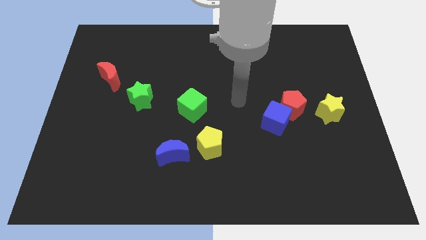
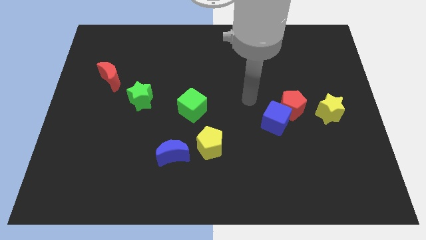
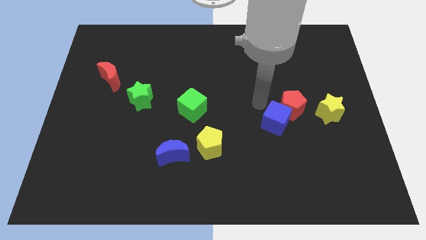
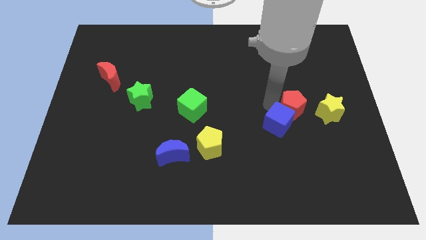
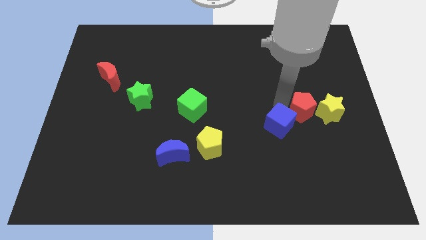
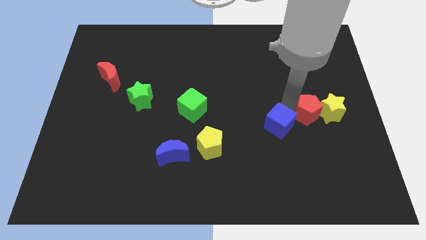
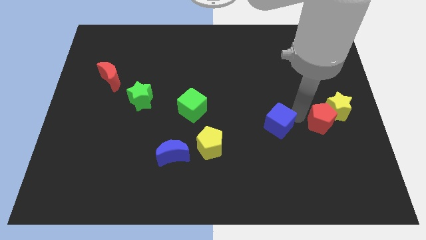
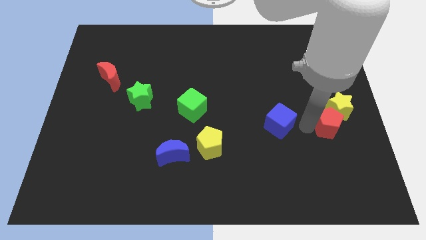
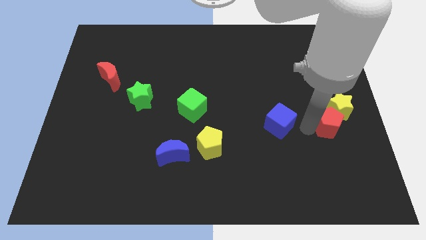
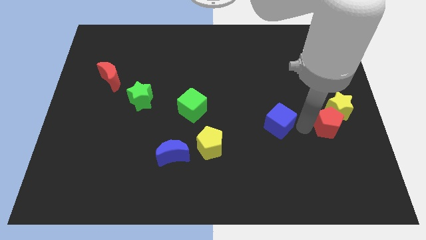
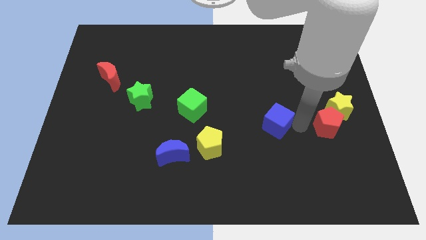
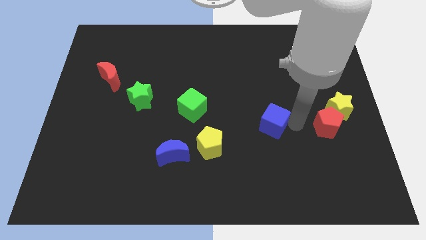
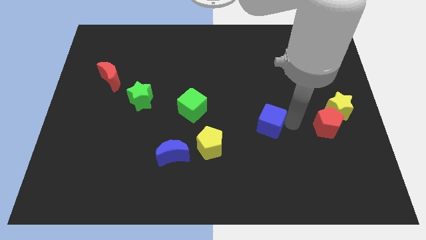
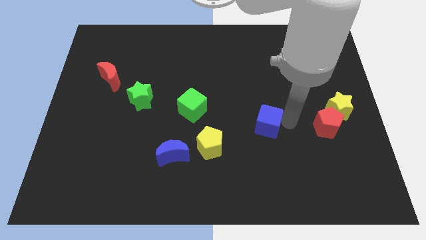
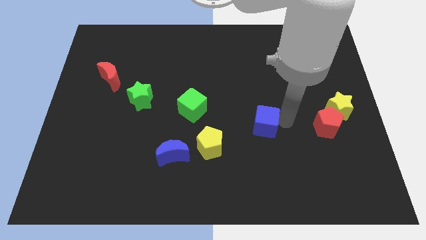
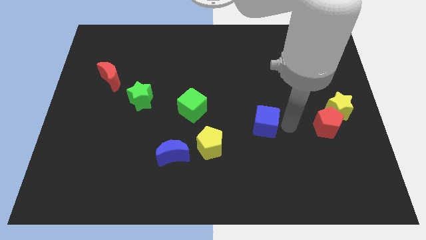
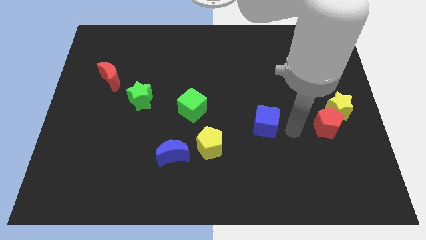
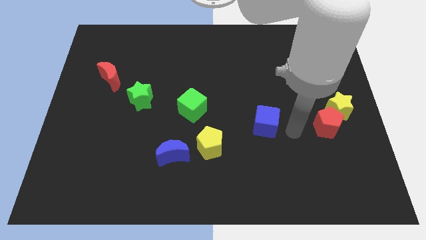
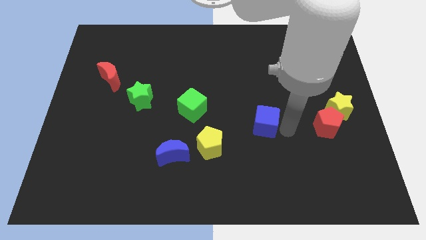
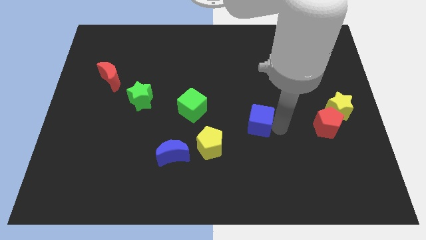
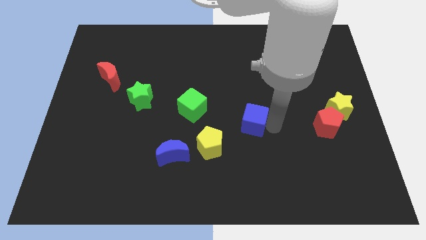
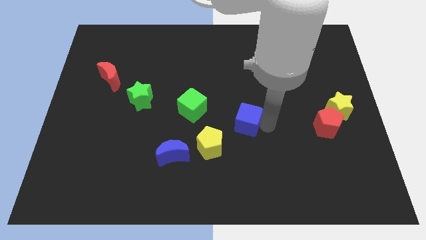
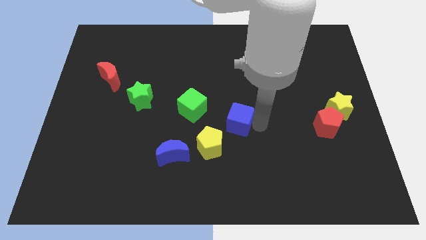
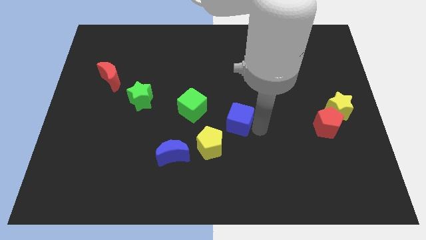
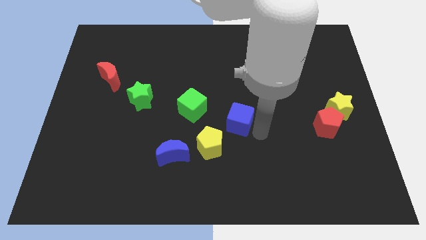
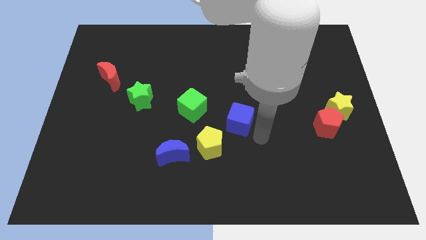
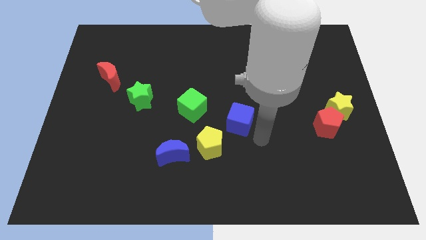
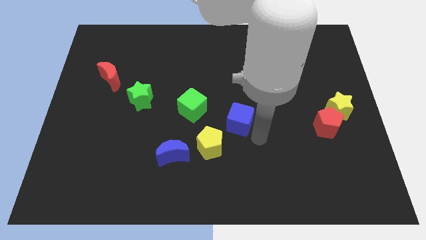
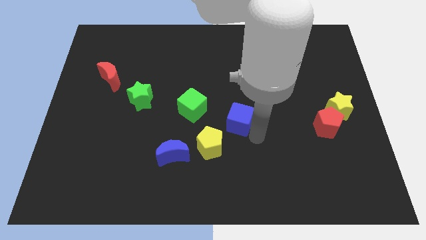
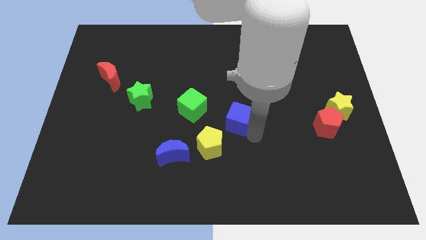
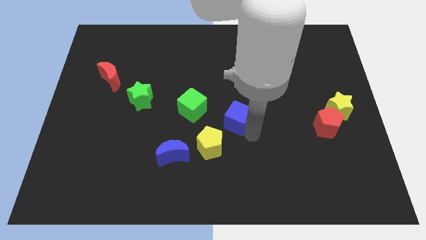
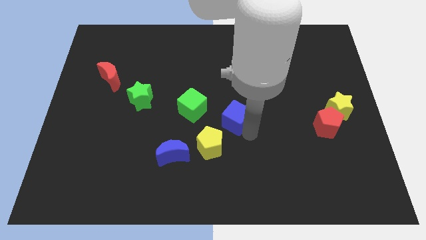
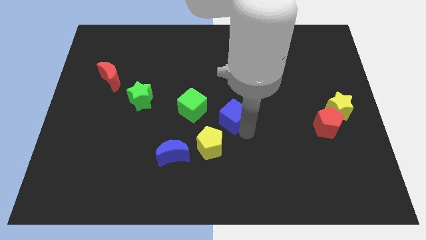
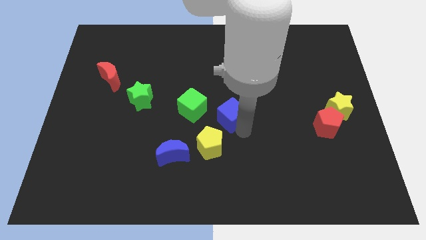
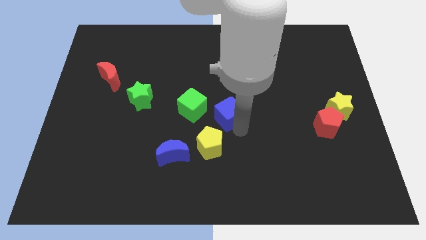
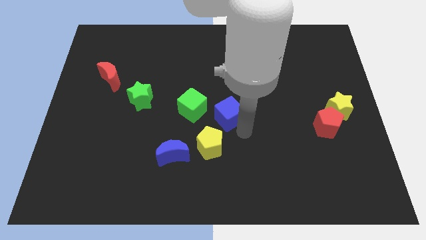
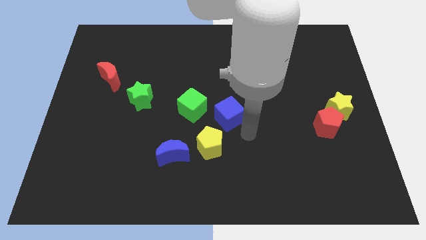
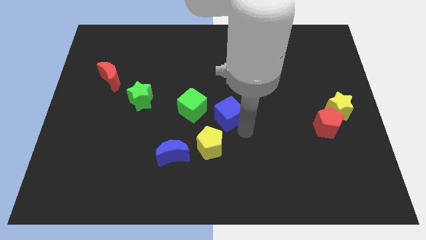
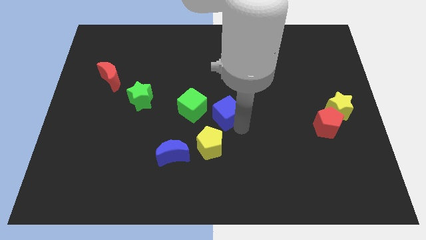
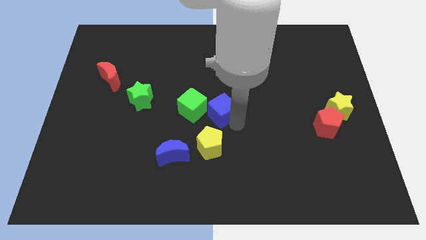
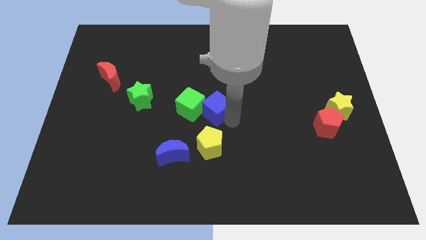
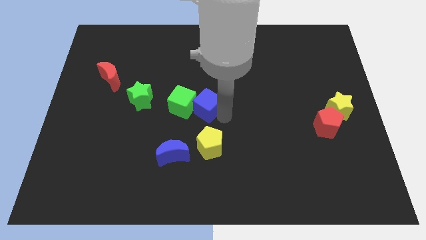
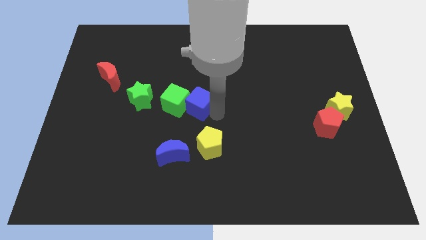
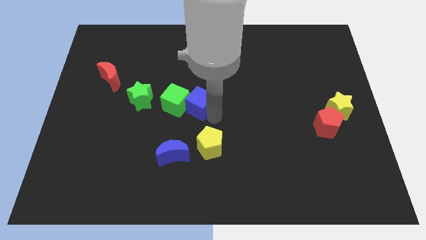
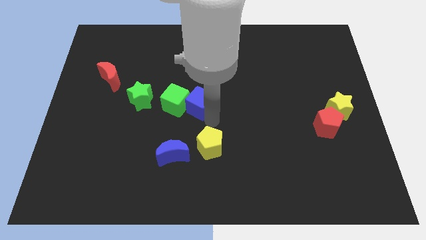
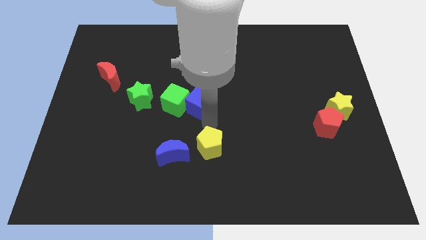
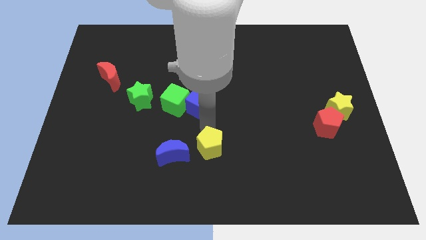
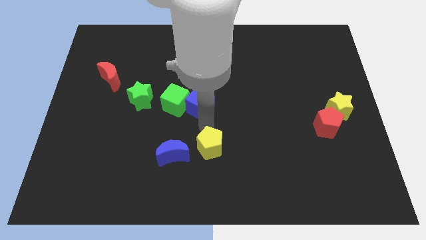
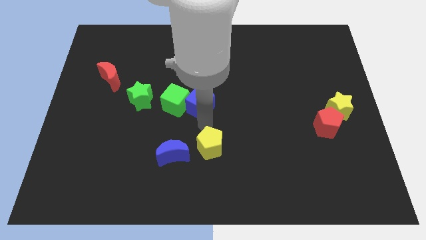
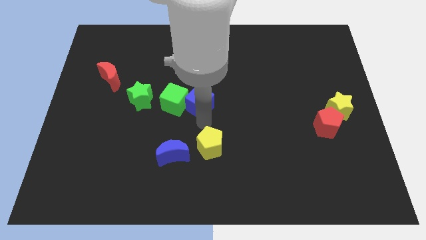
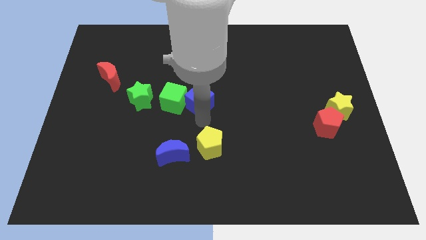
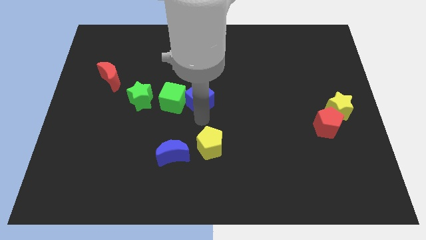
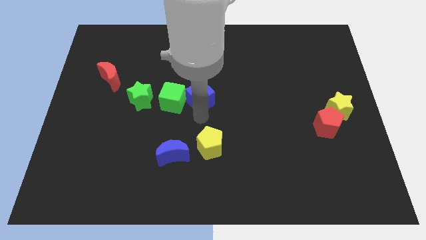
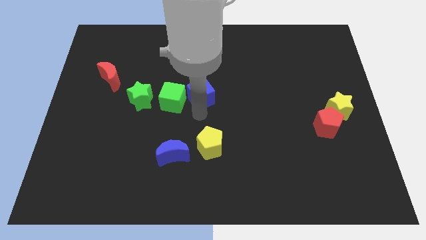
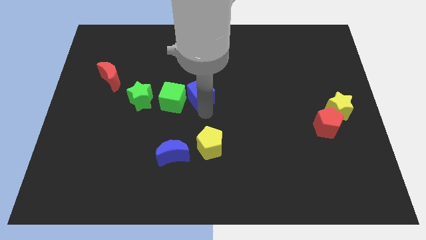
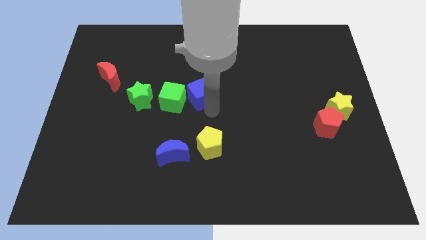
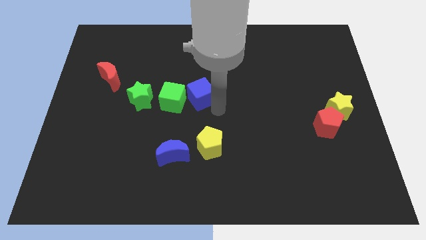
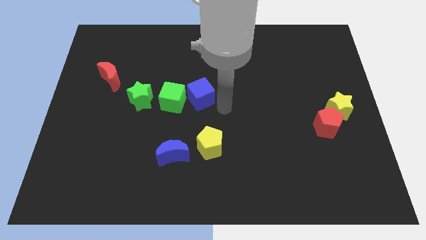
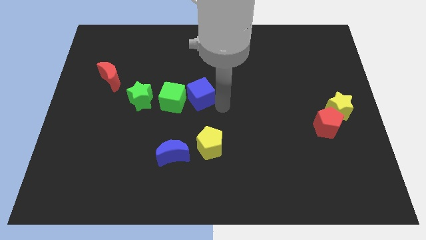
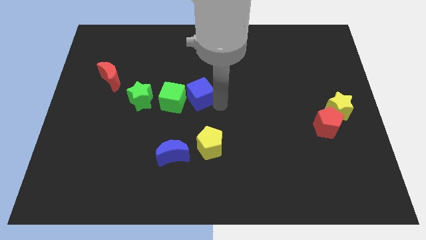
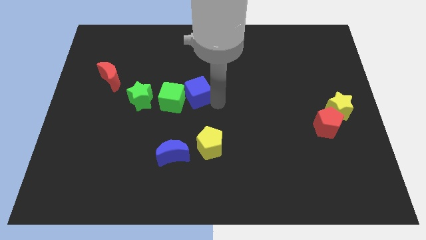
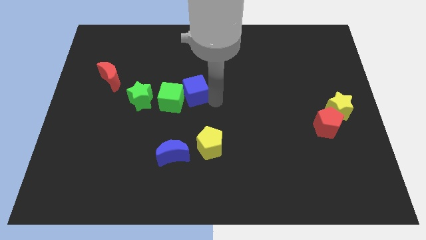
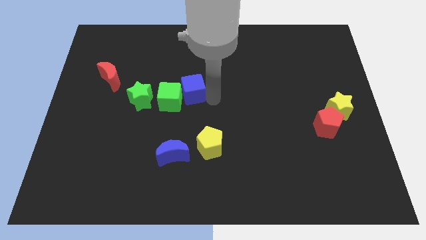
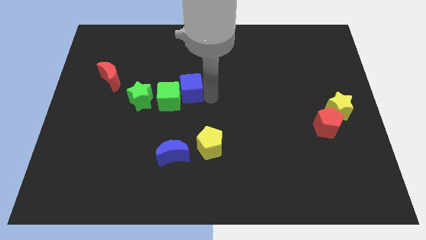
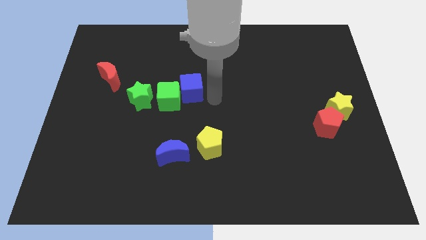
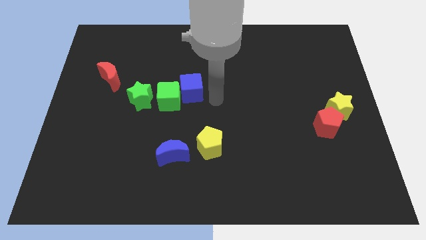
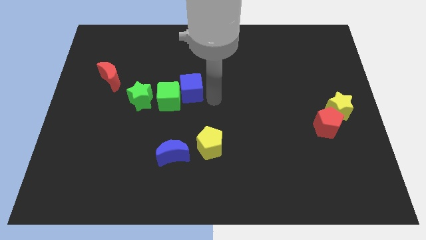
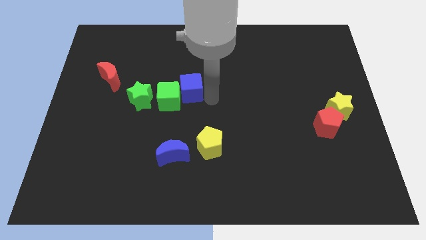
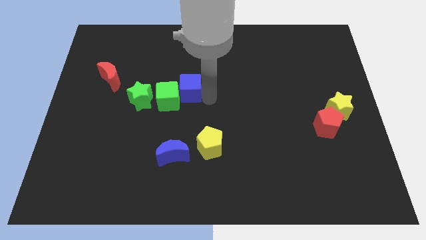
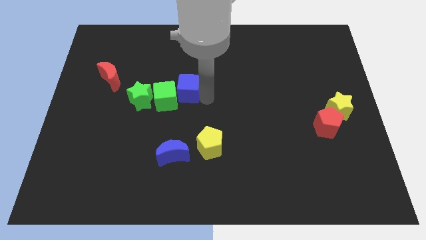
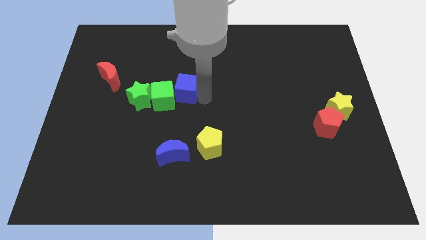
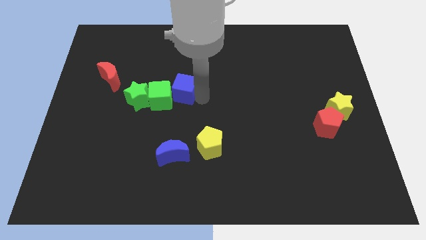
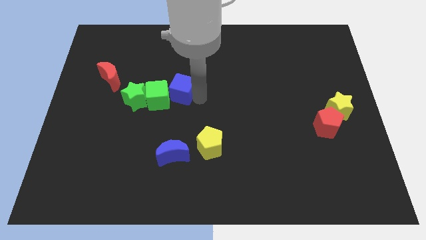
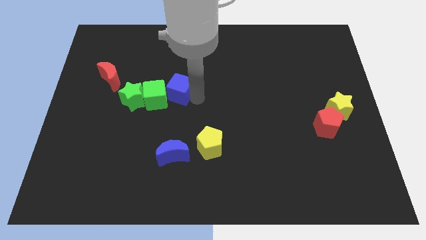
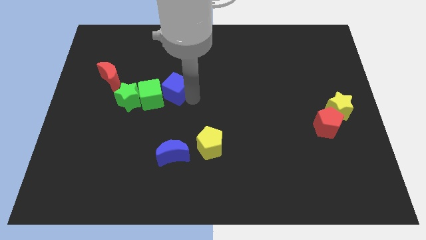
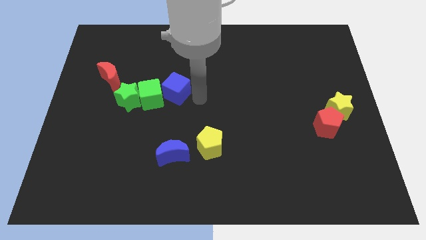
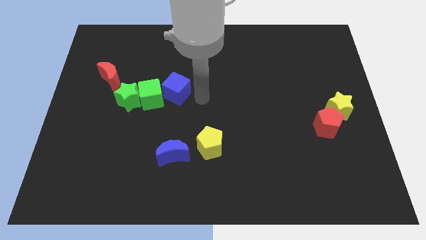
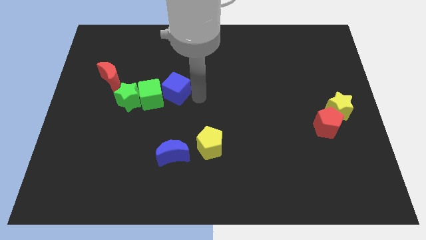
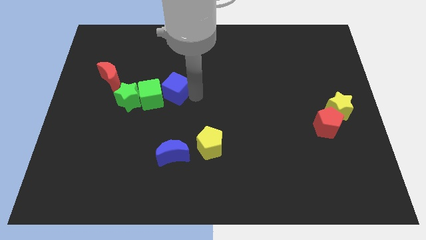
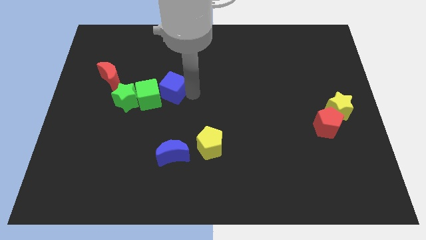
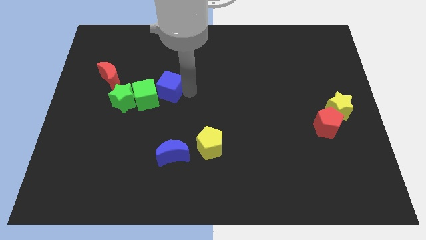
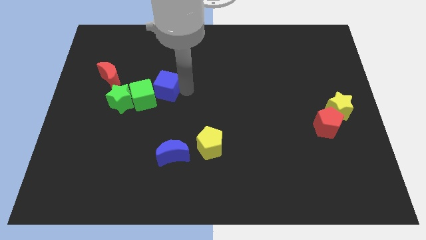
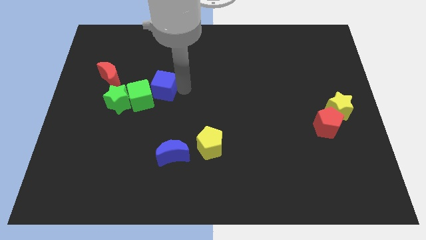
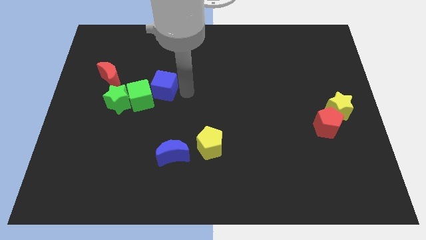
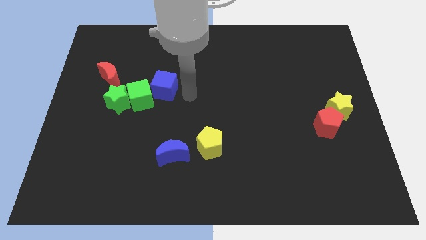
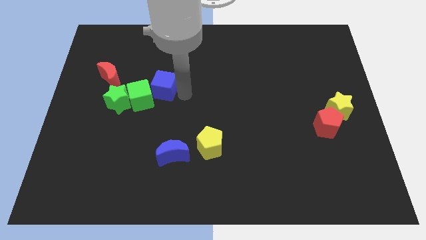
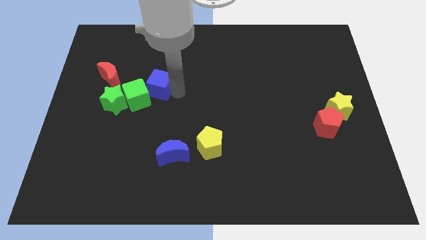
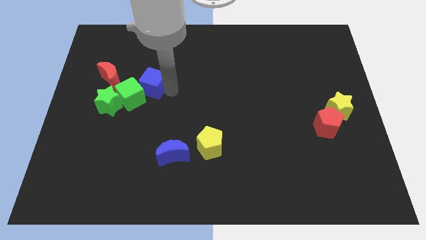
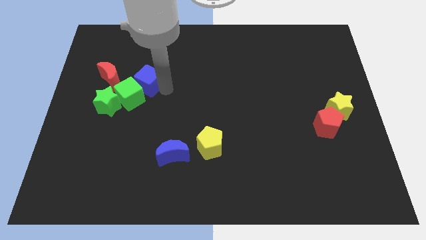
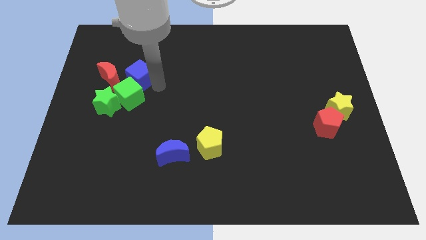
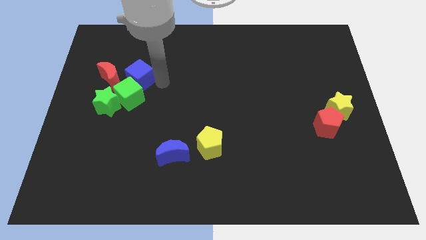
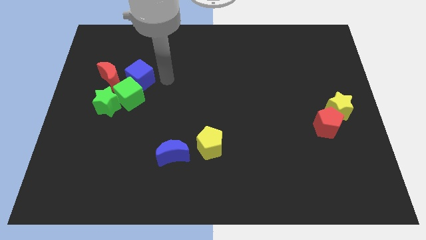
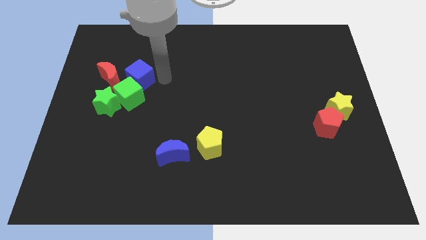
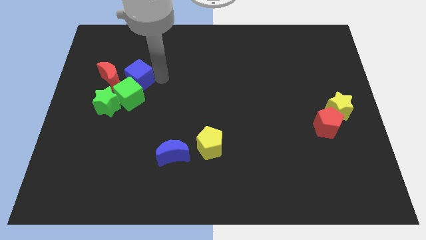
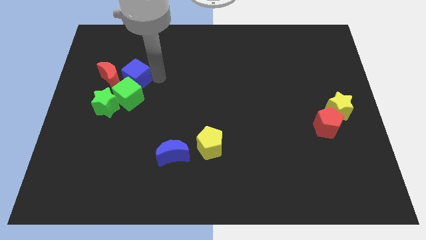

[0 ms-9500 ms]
slide the blue cube next to the red moon
